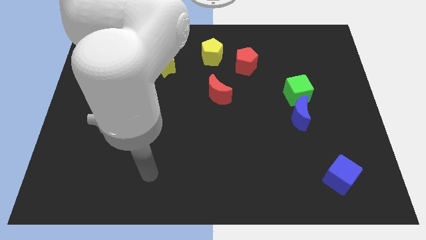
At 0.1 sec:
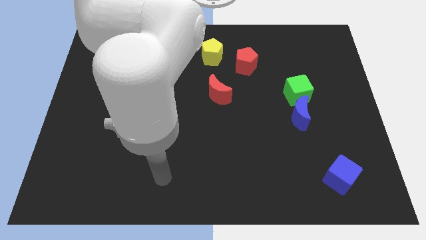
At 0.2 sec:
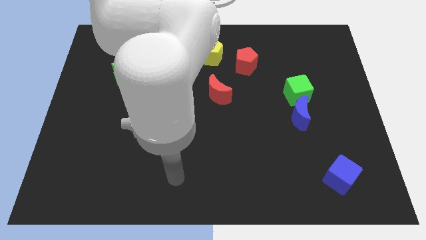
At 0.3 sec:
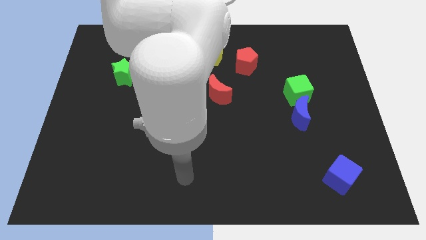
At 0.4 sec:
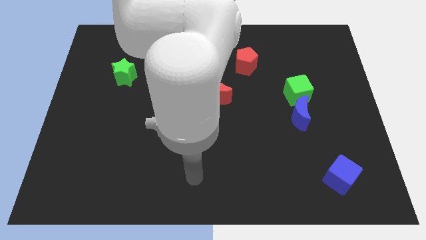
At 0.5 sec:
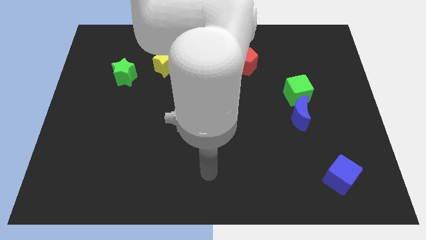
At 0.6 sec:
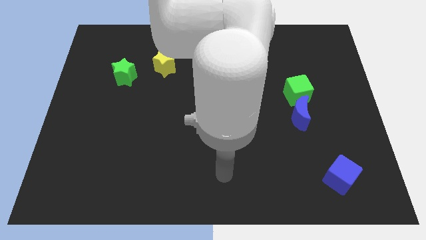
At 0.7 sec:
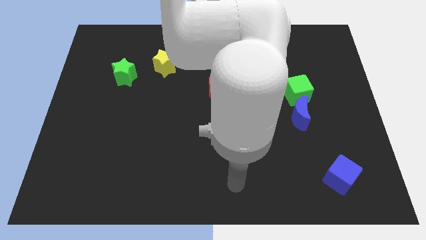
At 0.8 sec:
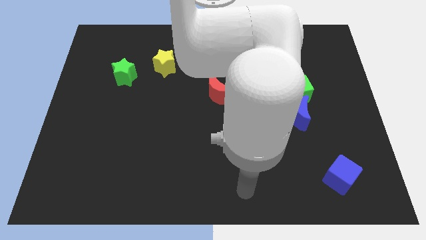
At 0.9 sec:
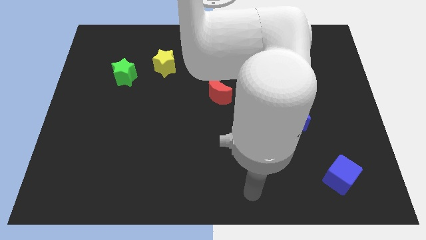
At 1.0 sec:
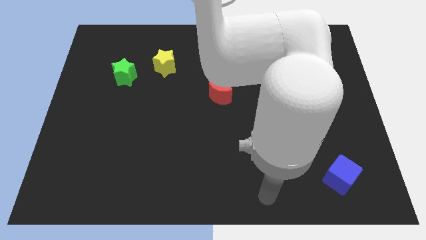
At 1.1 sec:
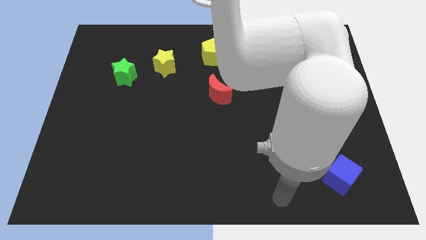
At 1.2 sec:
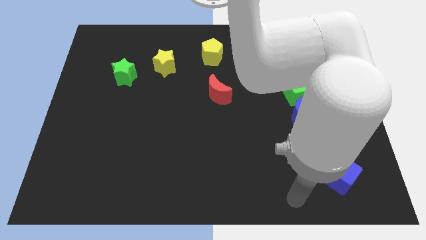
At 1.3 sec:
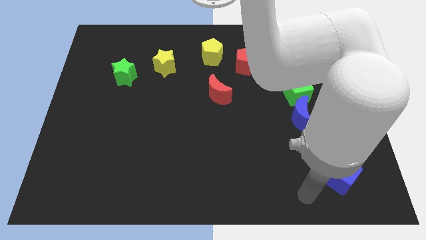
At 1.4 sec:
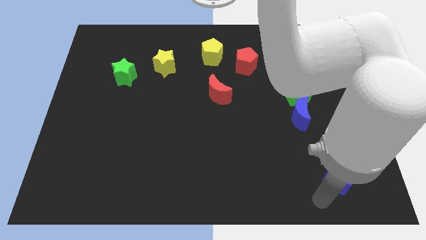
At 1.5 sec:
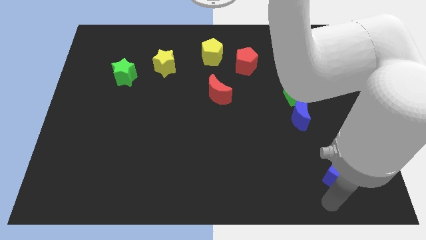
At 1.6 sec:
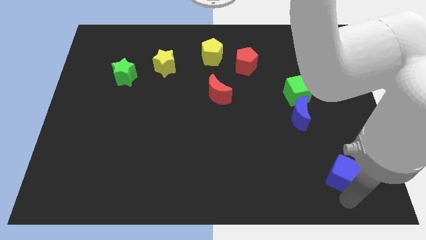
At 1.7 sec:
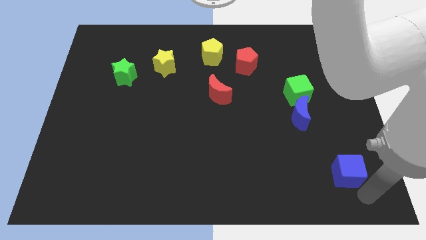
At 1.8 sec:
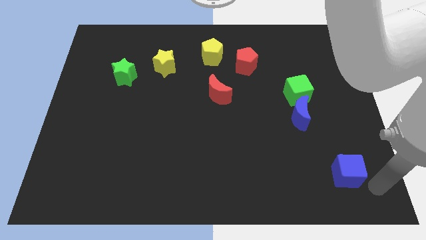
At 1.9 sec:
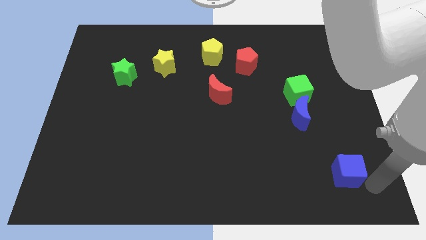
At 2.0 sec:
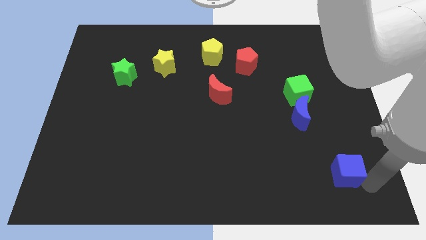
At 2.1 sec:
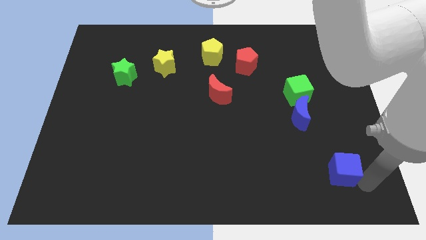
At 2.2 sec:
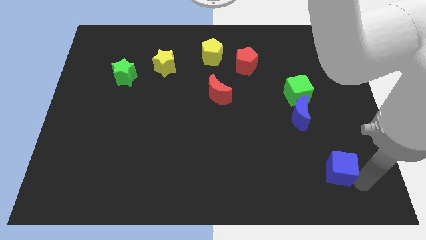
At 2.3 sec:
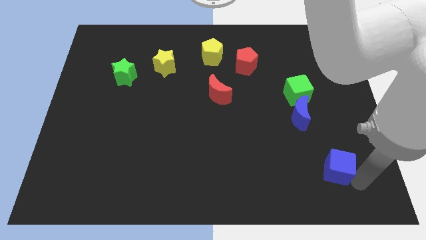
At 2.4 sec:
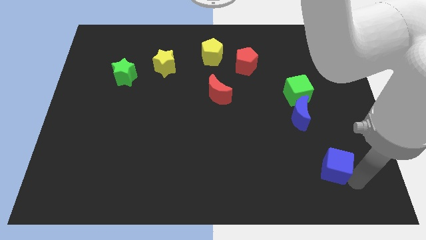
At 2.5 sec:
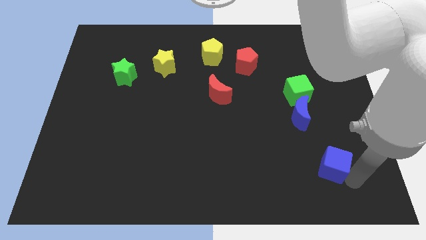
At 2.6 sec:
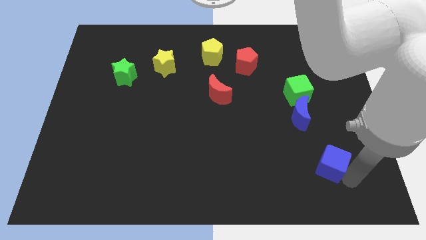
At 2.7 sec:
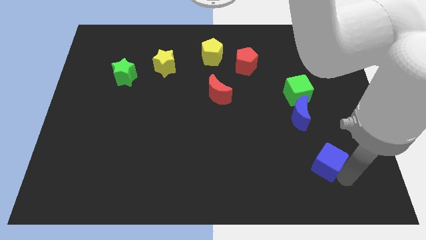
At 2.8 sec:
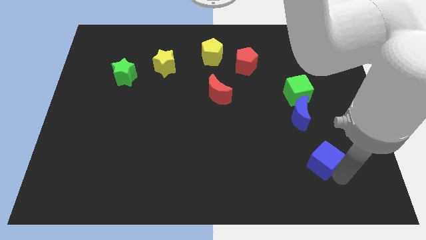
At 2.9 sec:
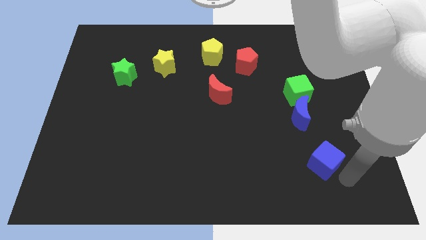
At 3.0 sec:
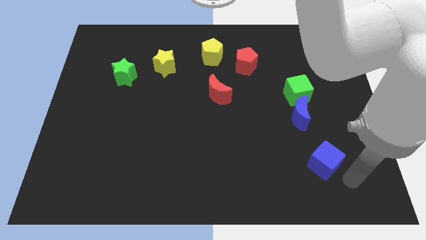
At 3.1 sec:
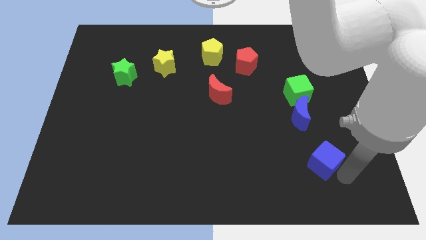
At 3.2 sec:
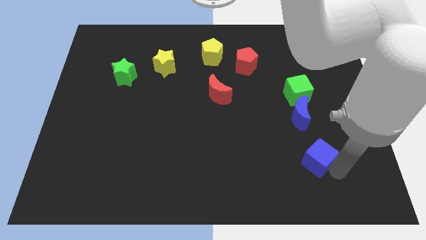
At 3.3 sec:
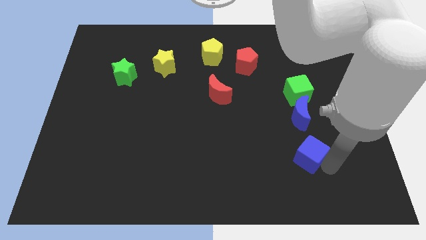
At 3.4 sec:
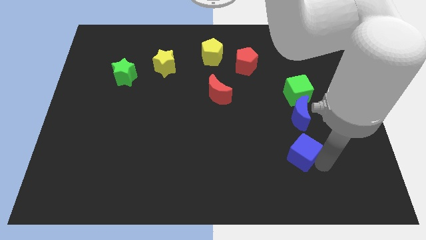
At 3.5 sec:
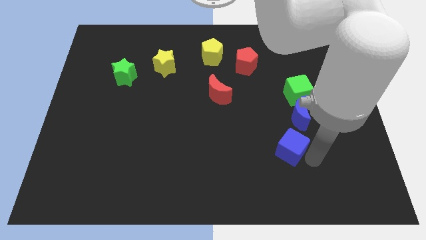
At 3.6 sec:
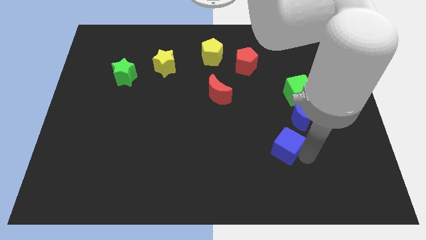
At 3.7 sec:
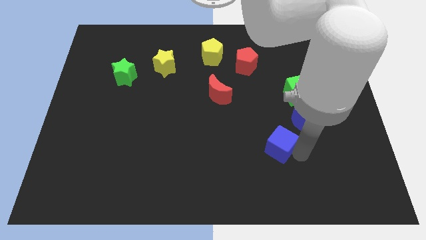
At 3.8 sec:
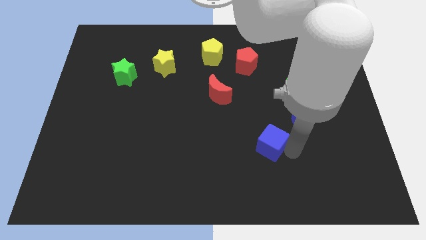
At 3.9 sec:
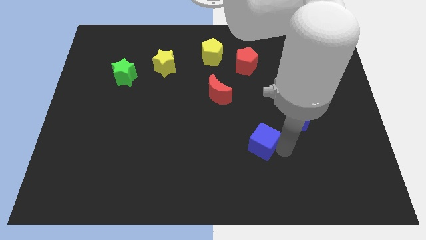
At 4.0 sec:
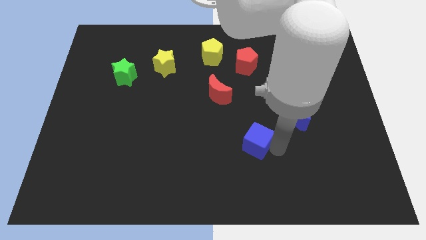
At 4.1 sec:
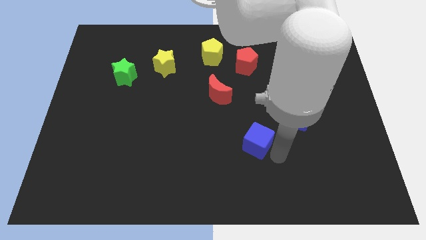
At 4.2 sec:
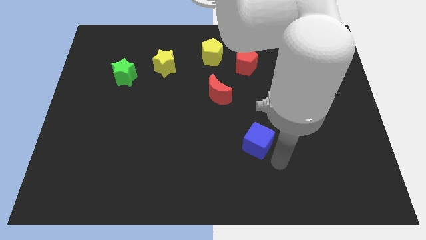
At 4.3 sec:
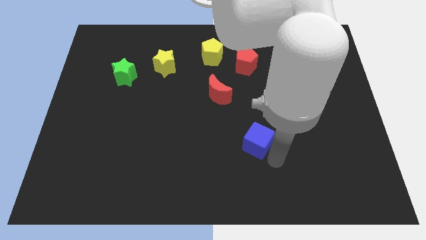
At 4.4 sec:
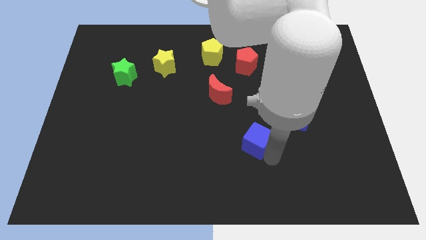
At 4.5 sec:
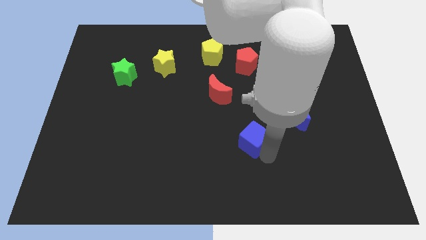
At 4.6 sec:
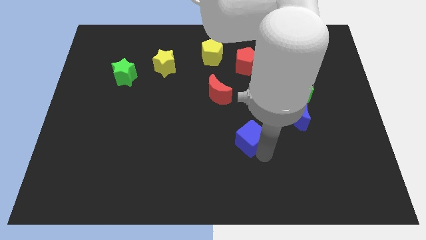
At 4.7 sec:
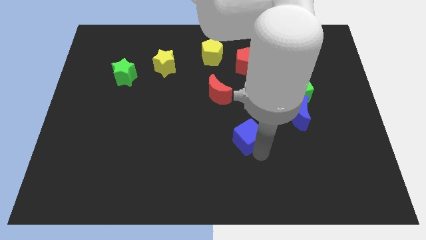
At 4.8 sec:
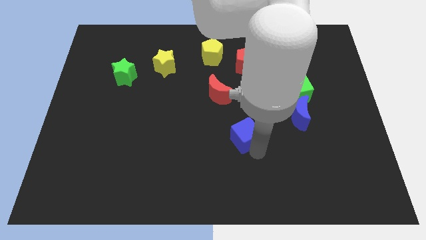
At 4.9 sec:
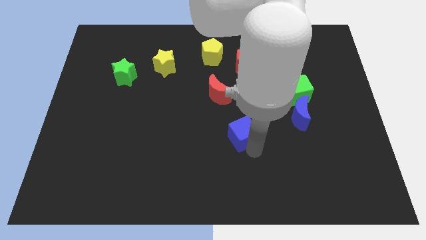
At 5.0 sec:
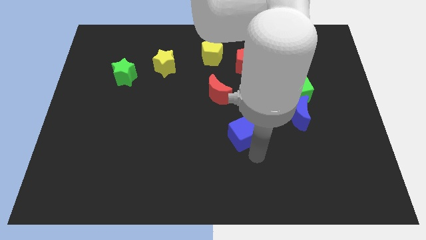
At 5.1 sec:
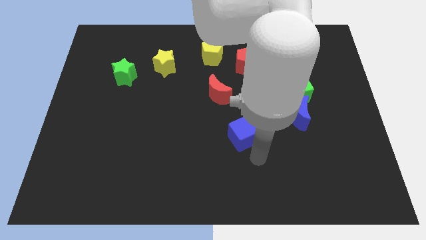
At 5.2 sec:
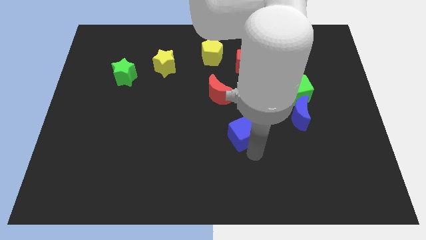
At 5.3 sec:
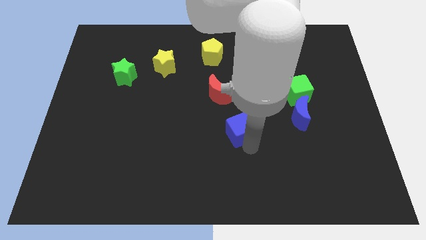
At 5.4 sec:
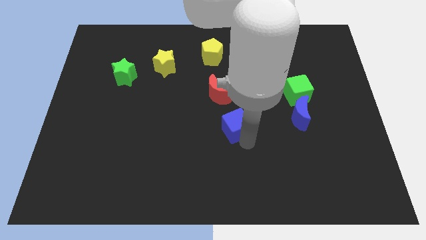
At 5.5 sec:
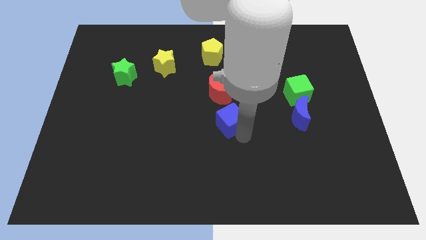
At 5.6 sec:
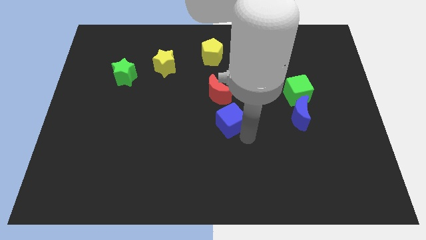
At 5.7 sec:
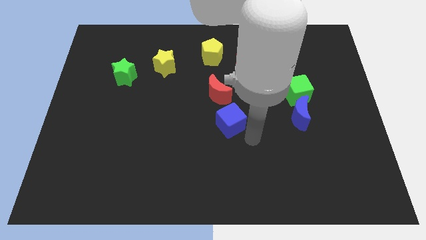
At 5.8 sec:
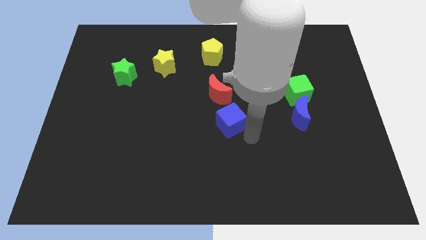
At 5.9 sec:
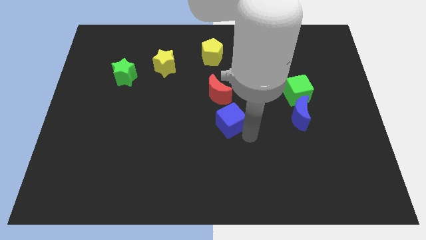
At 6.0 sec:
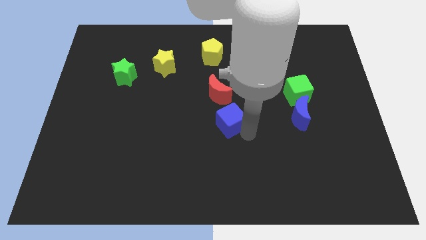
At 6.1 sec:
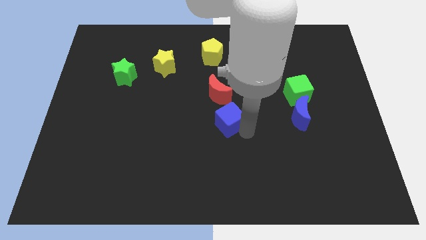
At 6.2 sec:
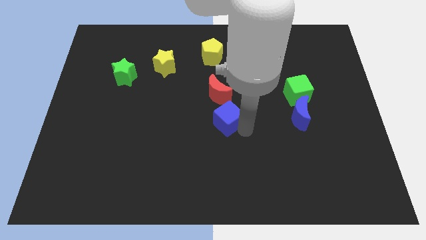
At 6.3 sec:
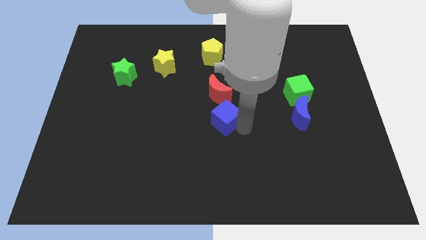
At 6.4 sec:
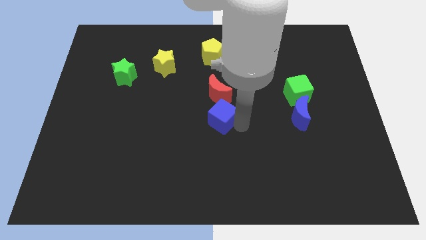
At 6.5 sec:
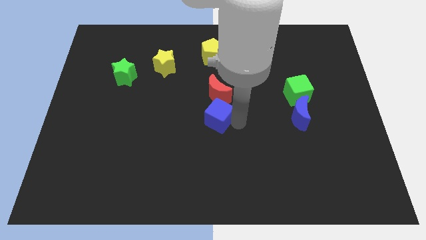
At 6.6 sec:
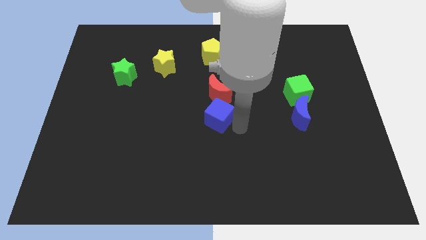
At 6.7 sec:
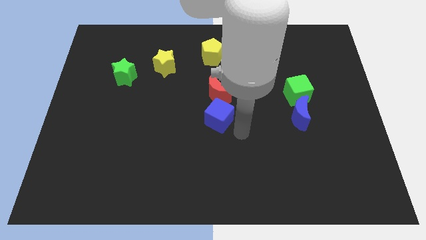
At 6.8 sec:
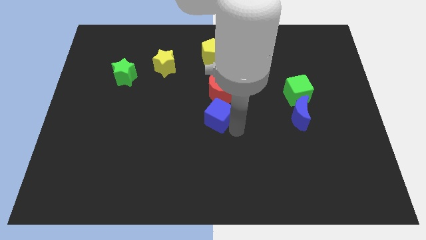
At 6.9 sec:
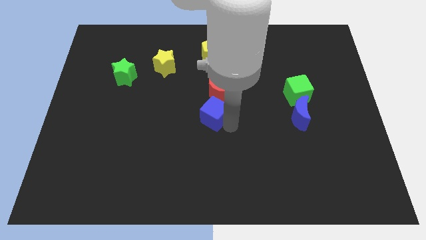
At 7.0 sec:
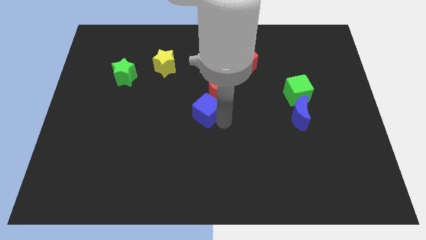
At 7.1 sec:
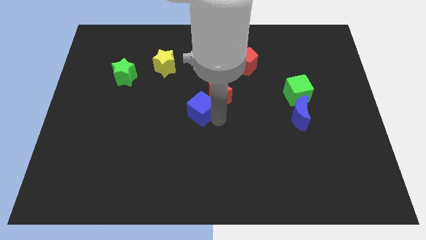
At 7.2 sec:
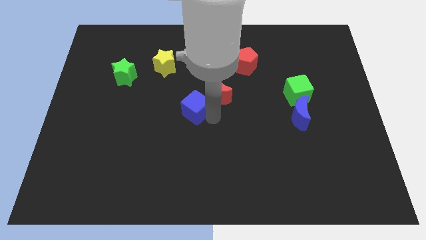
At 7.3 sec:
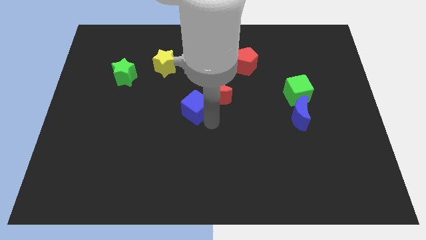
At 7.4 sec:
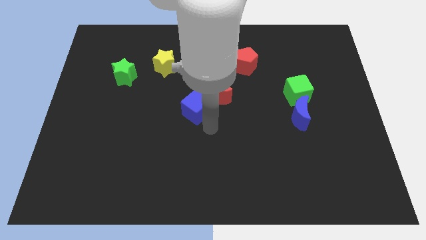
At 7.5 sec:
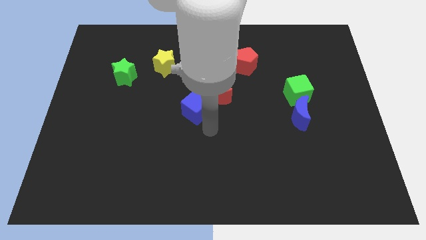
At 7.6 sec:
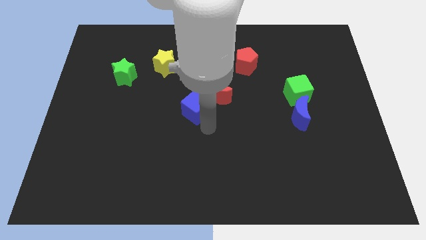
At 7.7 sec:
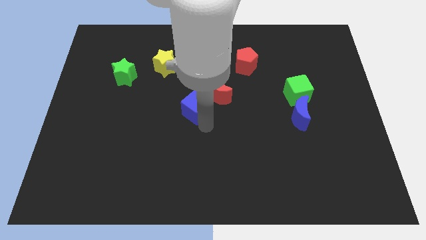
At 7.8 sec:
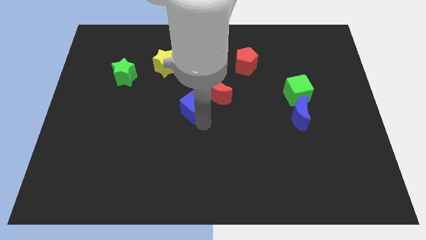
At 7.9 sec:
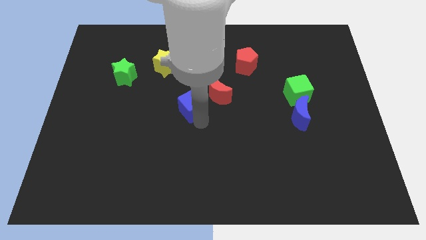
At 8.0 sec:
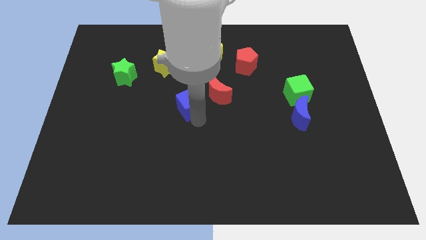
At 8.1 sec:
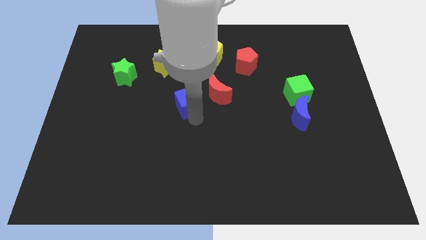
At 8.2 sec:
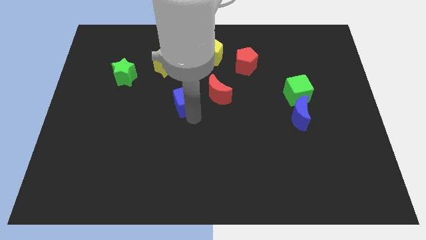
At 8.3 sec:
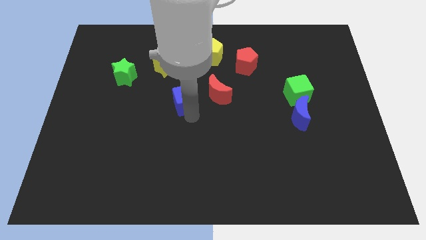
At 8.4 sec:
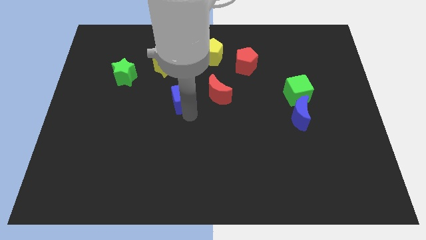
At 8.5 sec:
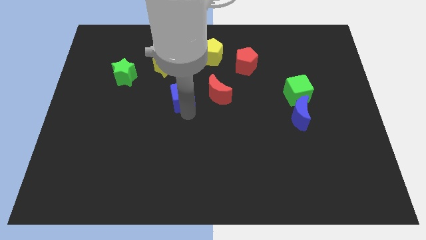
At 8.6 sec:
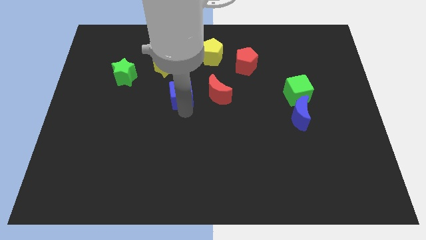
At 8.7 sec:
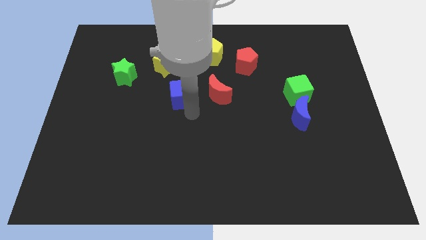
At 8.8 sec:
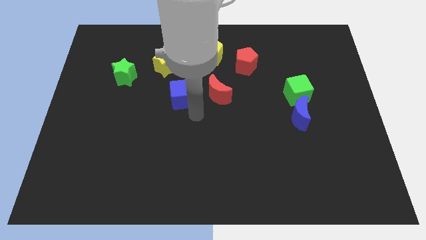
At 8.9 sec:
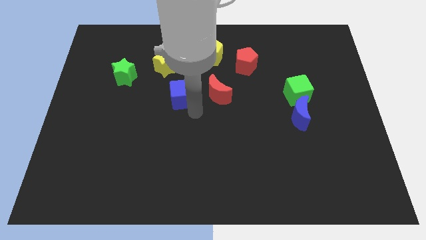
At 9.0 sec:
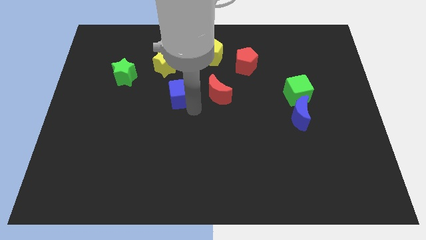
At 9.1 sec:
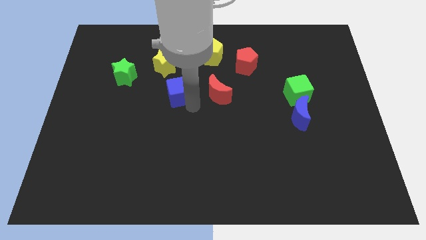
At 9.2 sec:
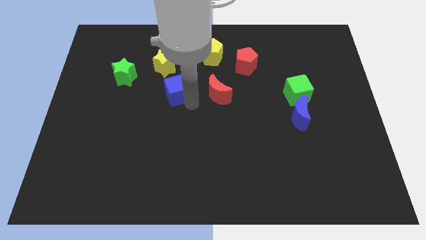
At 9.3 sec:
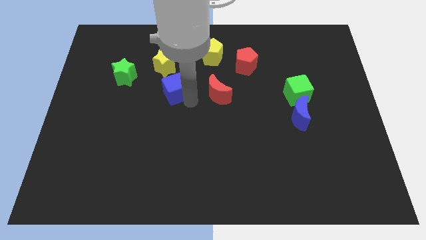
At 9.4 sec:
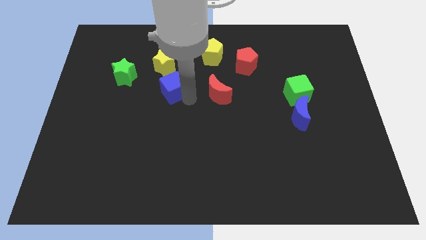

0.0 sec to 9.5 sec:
put the blue cube just right of the green star
